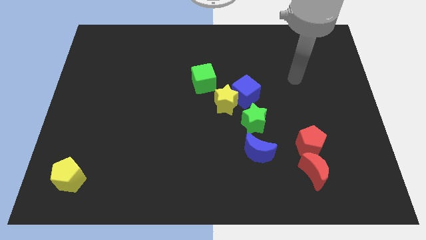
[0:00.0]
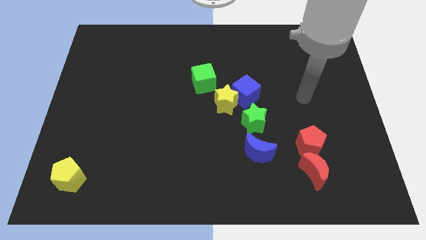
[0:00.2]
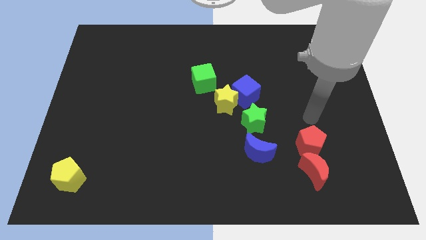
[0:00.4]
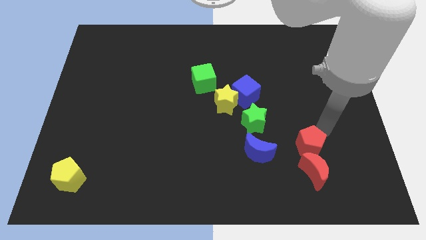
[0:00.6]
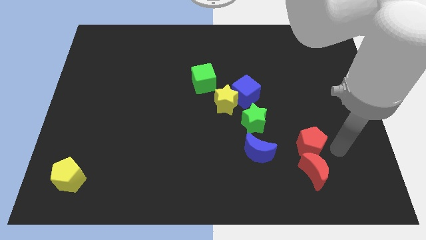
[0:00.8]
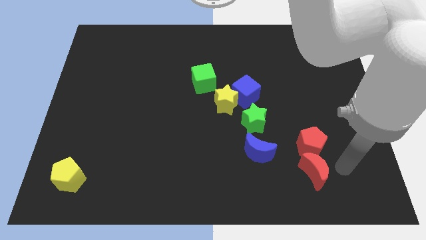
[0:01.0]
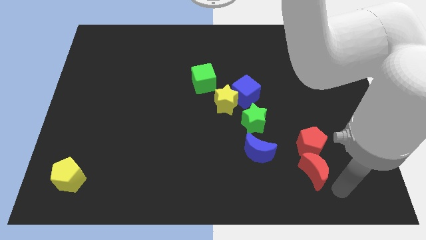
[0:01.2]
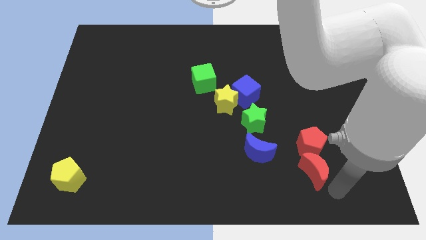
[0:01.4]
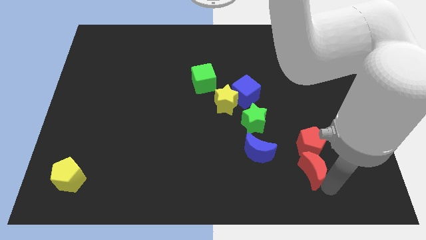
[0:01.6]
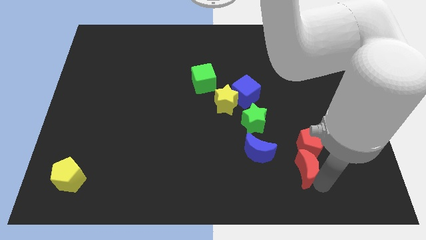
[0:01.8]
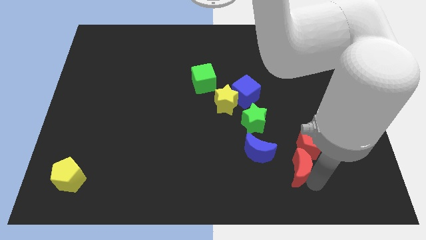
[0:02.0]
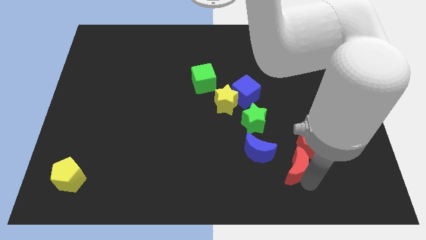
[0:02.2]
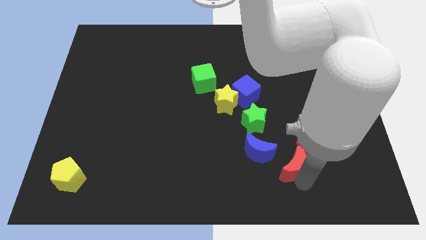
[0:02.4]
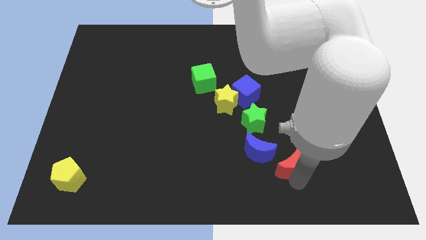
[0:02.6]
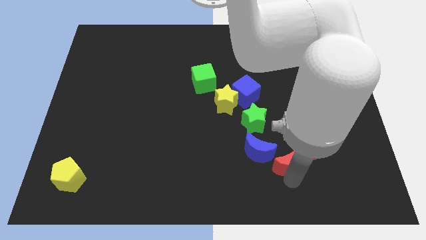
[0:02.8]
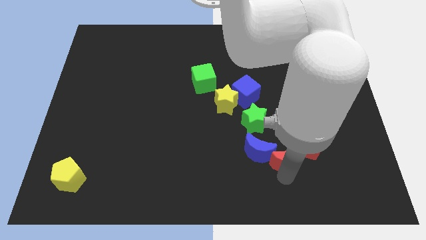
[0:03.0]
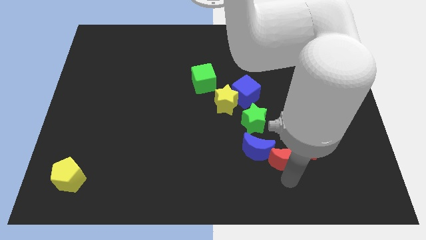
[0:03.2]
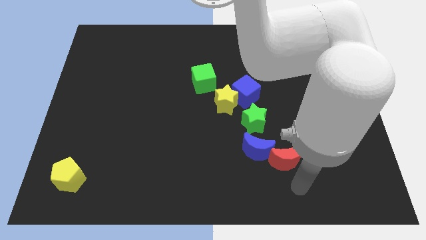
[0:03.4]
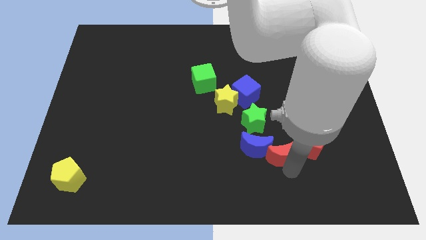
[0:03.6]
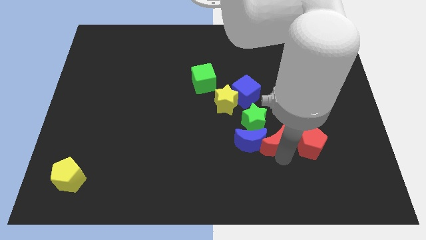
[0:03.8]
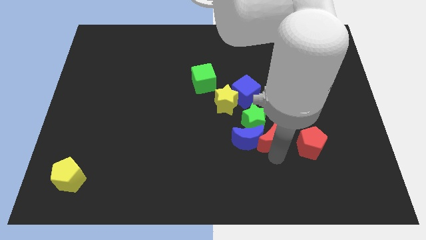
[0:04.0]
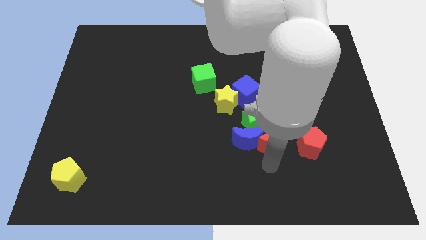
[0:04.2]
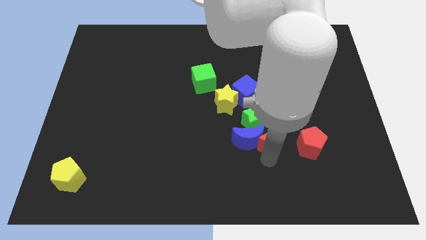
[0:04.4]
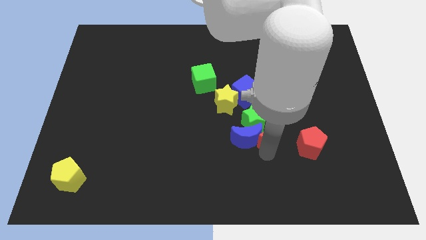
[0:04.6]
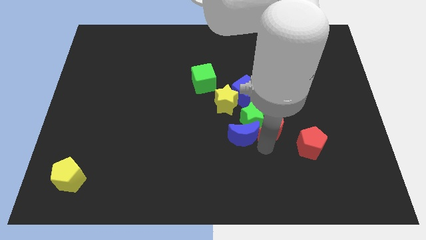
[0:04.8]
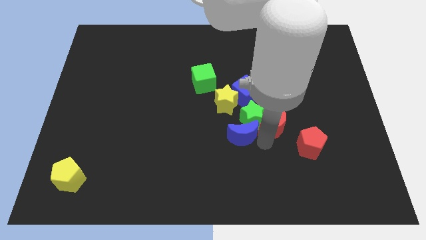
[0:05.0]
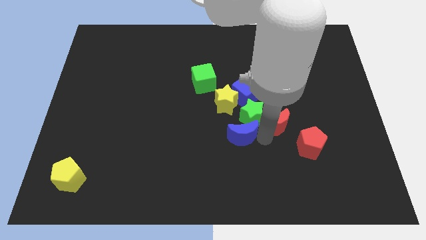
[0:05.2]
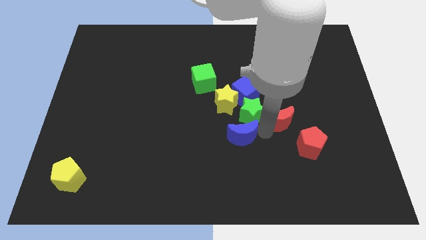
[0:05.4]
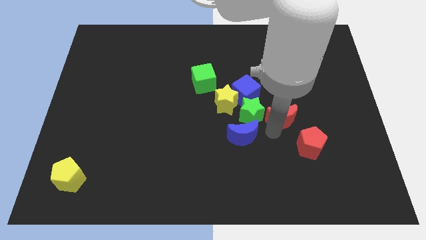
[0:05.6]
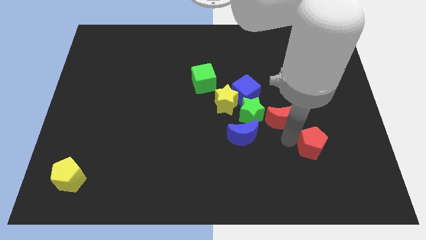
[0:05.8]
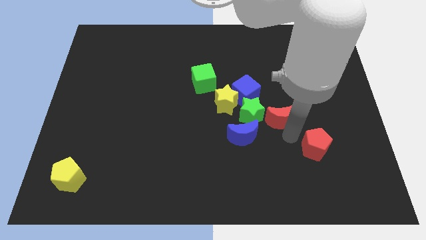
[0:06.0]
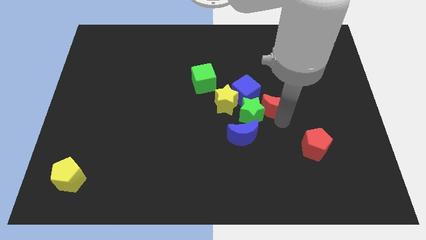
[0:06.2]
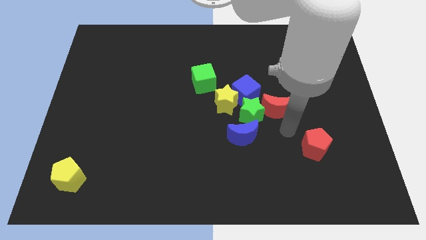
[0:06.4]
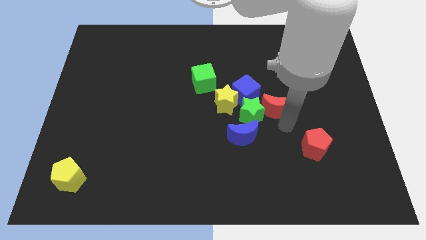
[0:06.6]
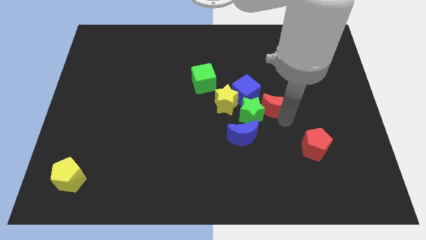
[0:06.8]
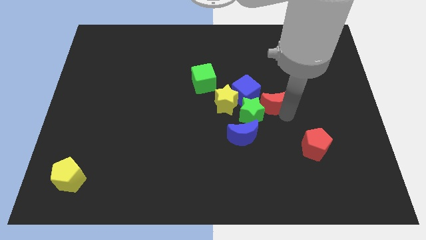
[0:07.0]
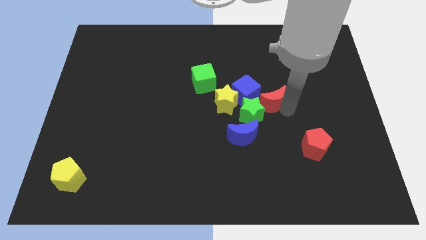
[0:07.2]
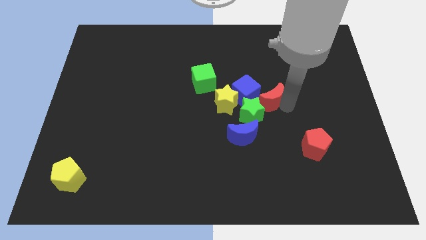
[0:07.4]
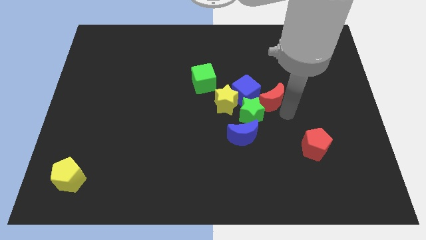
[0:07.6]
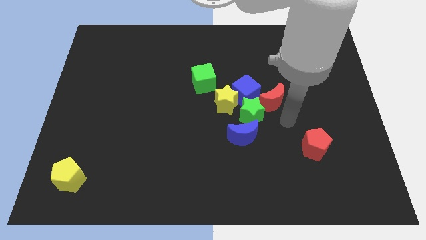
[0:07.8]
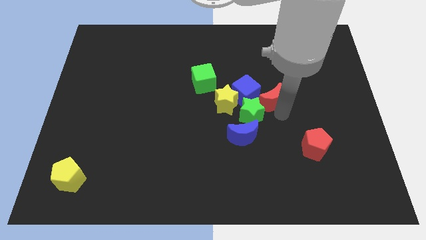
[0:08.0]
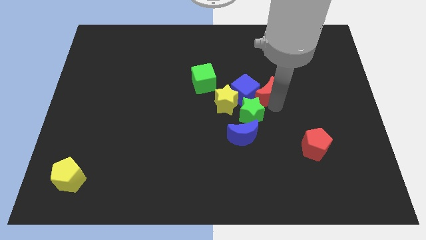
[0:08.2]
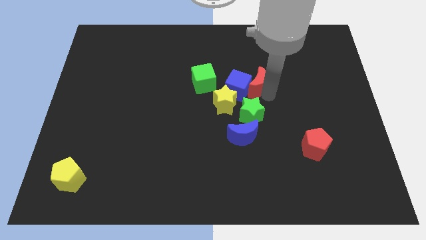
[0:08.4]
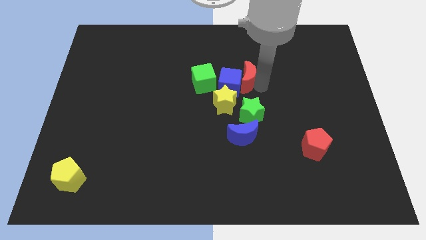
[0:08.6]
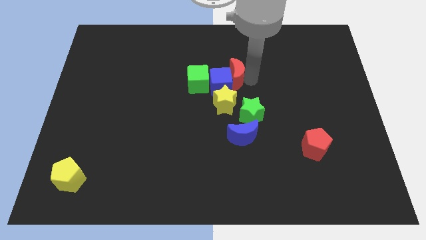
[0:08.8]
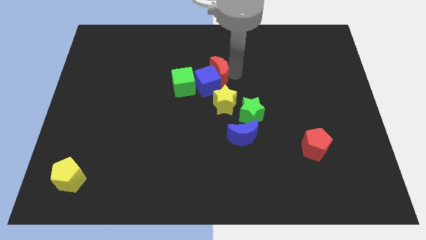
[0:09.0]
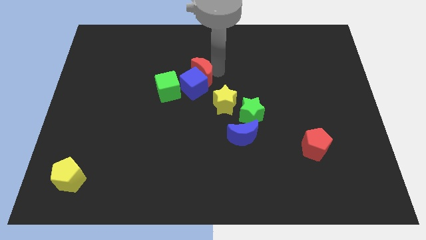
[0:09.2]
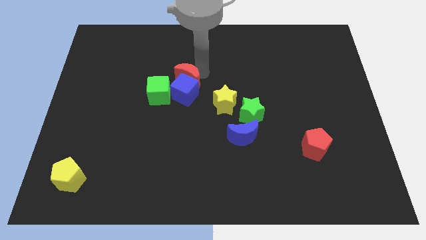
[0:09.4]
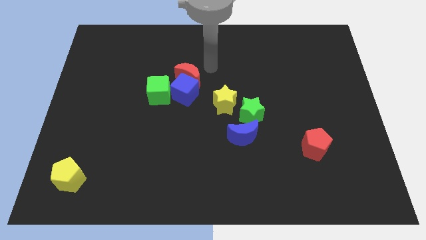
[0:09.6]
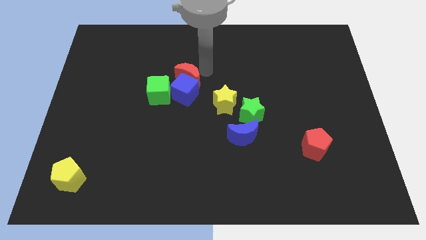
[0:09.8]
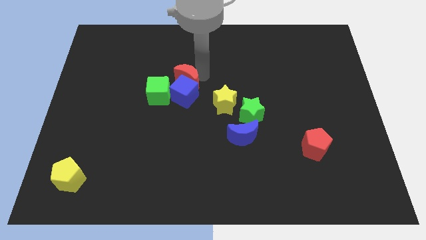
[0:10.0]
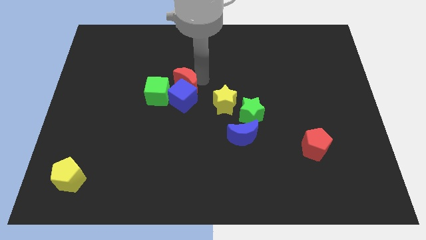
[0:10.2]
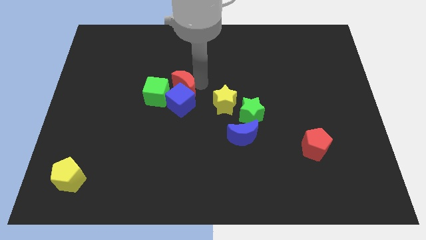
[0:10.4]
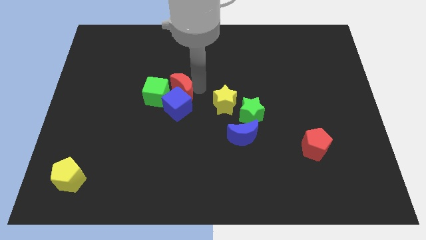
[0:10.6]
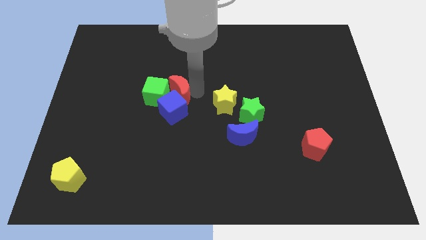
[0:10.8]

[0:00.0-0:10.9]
slide the red moon towards the green cube

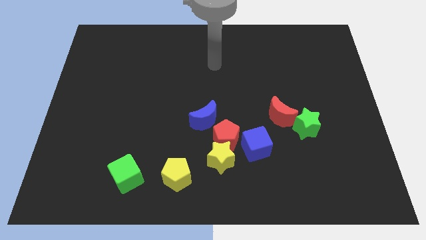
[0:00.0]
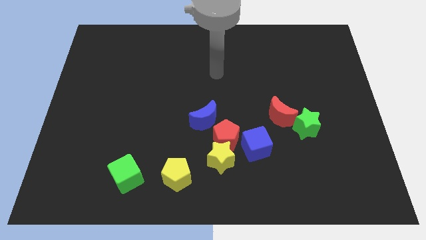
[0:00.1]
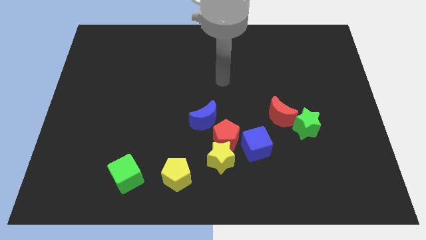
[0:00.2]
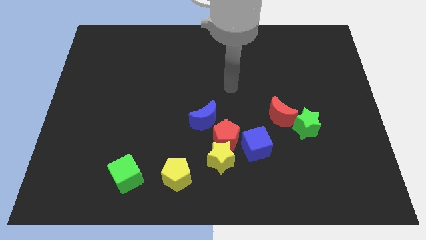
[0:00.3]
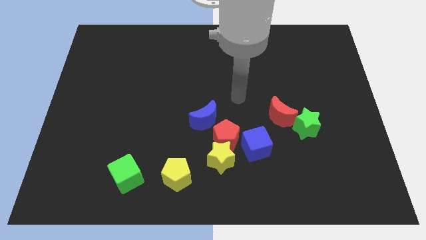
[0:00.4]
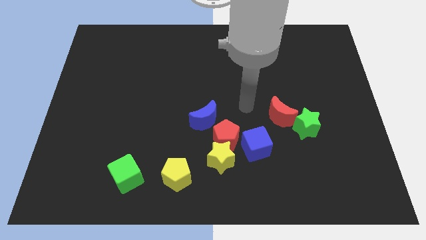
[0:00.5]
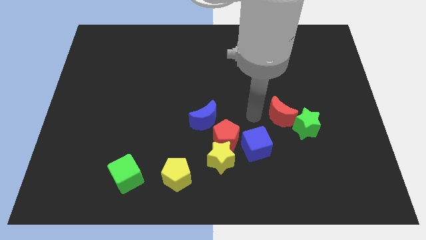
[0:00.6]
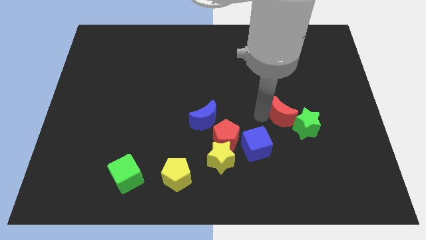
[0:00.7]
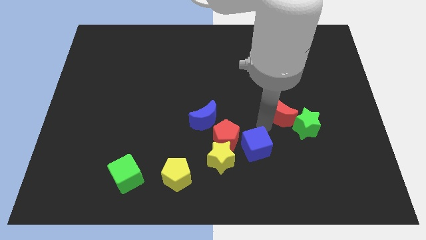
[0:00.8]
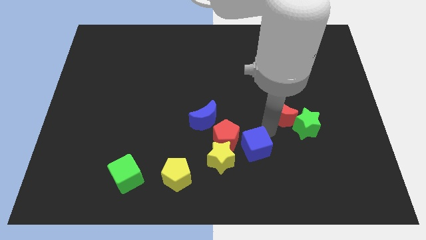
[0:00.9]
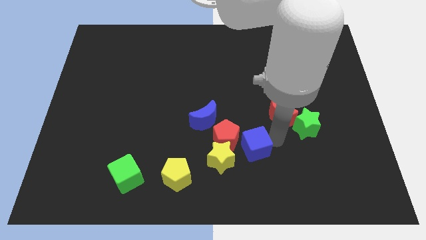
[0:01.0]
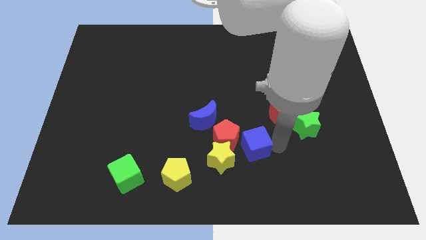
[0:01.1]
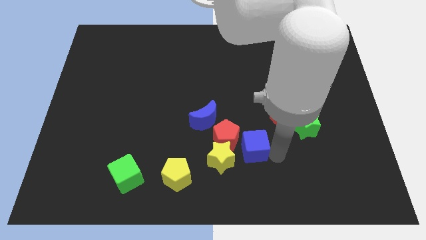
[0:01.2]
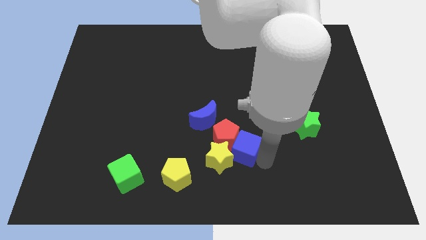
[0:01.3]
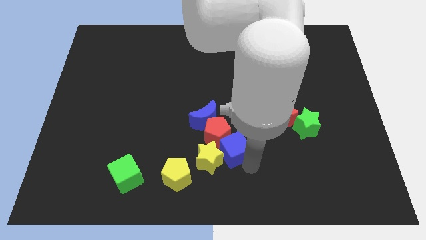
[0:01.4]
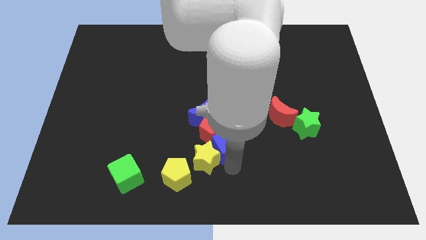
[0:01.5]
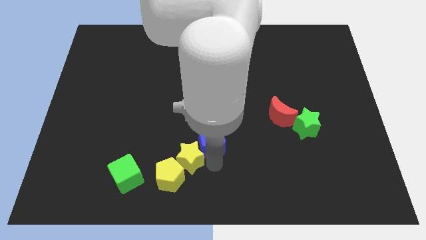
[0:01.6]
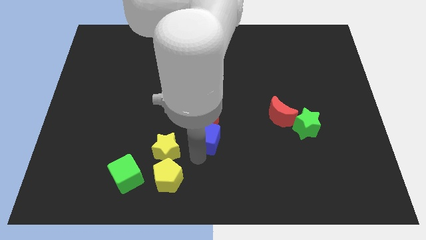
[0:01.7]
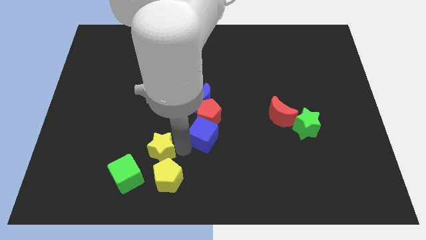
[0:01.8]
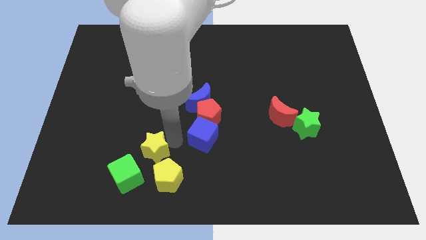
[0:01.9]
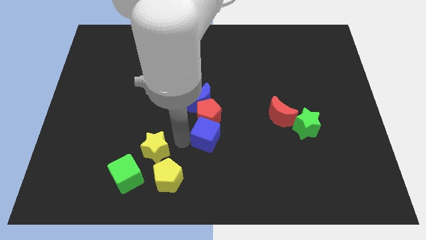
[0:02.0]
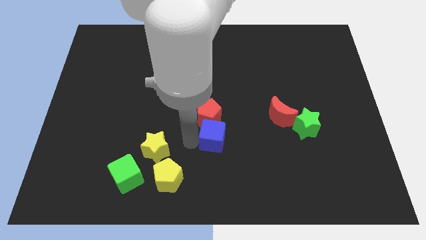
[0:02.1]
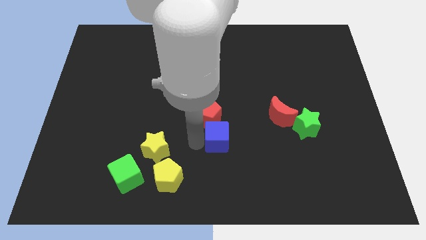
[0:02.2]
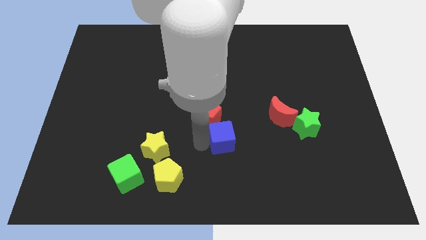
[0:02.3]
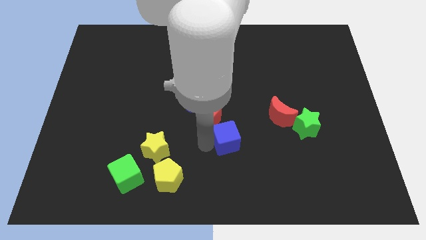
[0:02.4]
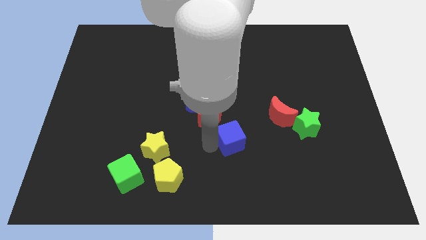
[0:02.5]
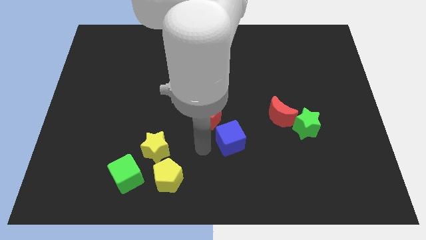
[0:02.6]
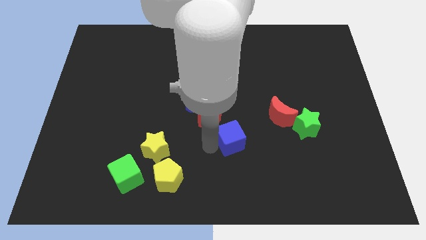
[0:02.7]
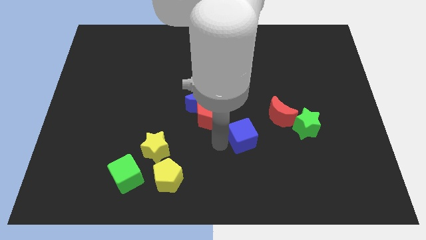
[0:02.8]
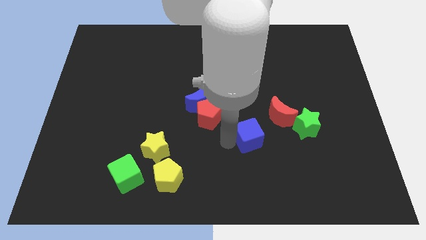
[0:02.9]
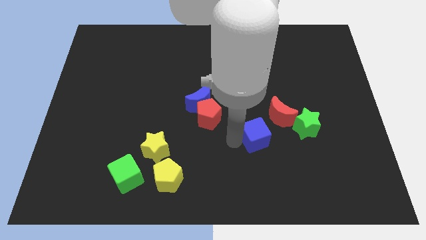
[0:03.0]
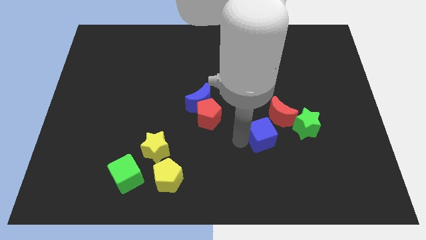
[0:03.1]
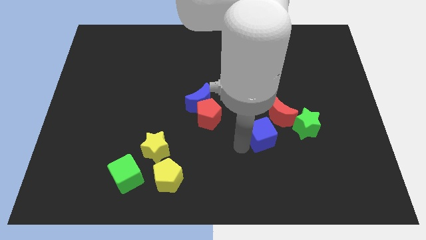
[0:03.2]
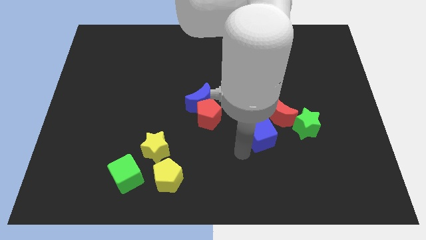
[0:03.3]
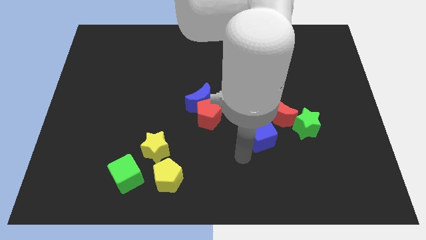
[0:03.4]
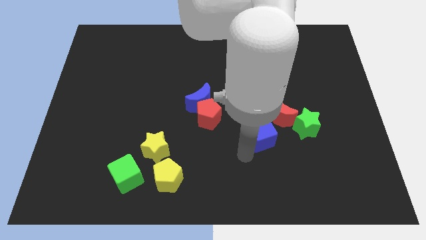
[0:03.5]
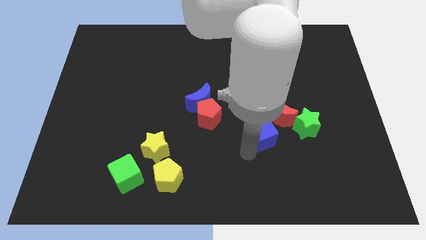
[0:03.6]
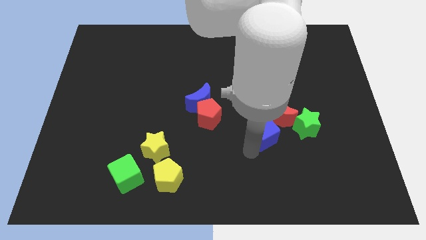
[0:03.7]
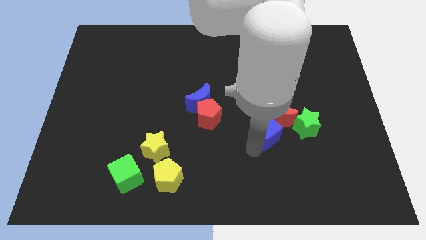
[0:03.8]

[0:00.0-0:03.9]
slide the blue cube to the red moon
